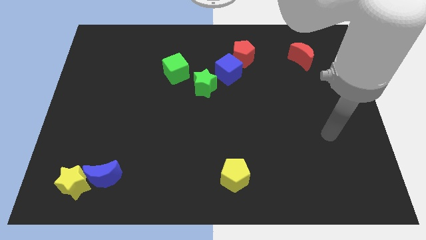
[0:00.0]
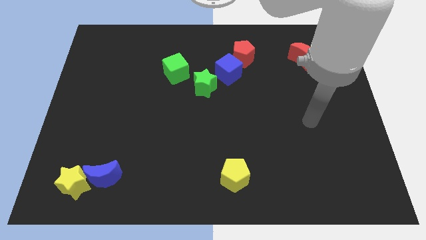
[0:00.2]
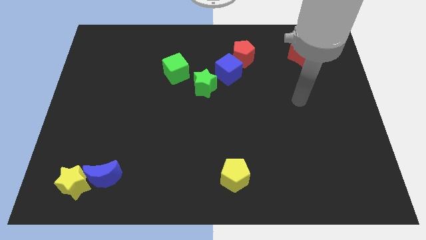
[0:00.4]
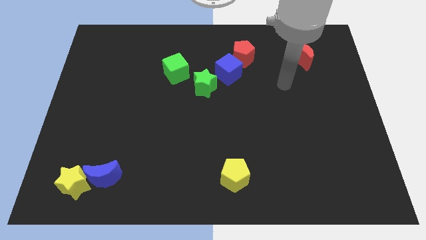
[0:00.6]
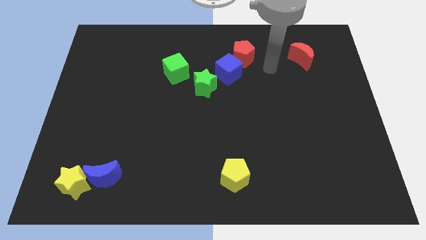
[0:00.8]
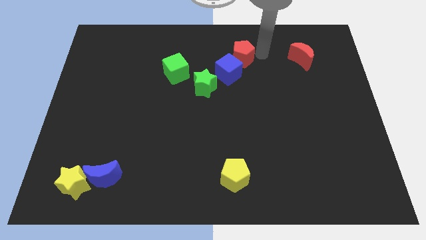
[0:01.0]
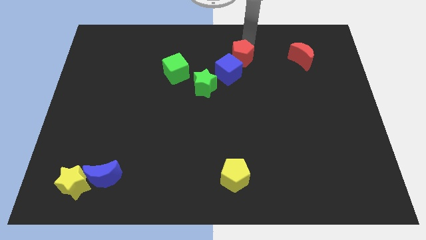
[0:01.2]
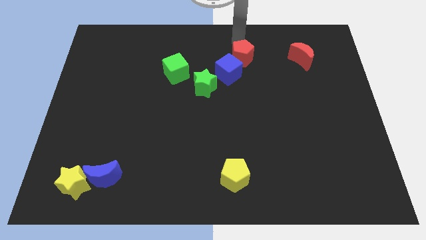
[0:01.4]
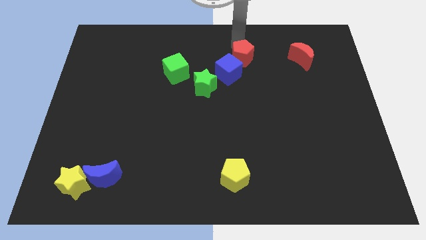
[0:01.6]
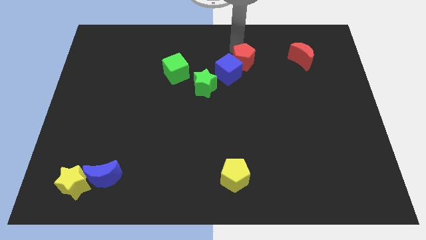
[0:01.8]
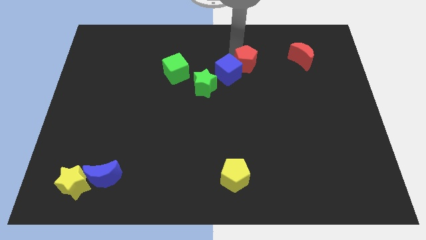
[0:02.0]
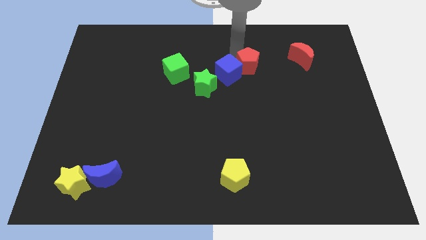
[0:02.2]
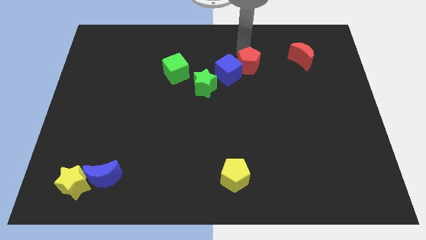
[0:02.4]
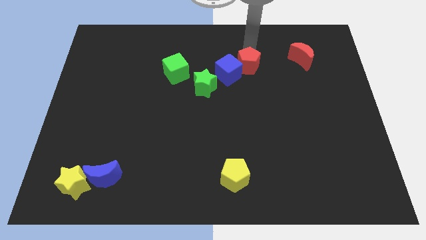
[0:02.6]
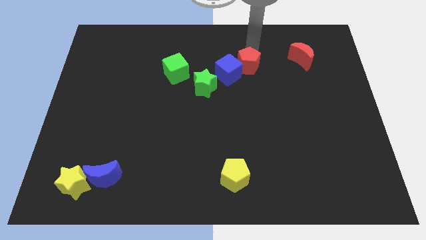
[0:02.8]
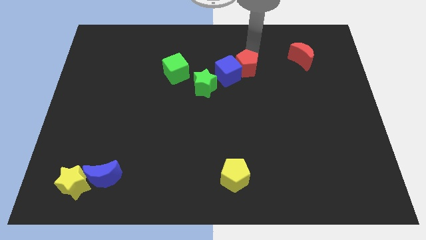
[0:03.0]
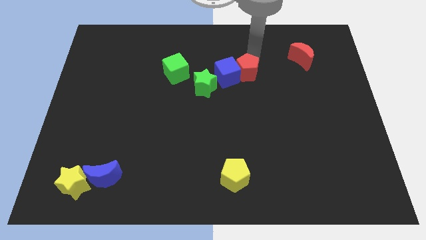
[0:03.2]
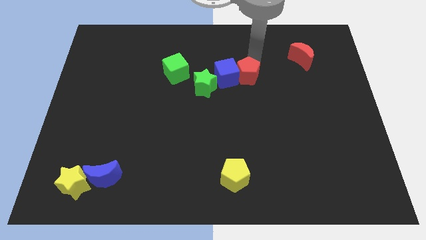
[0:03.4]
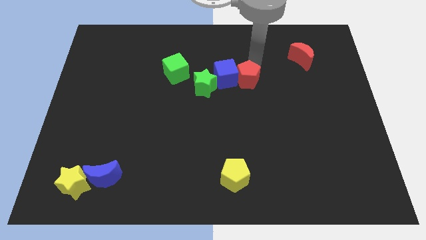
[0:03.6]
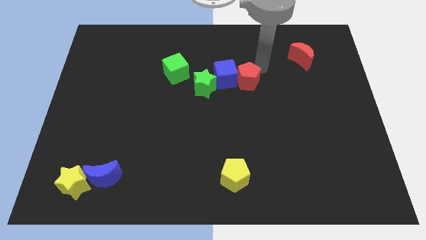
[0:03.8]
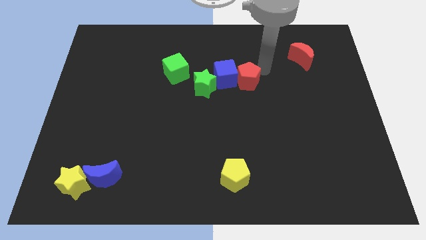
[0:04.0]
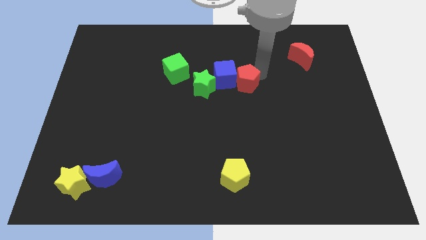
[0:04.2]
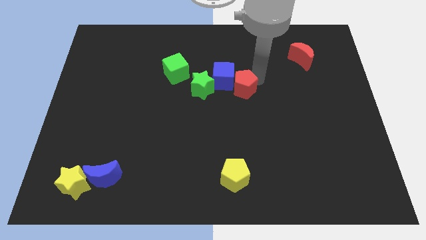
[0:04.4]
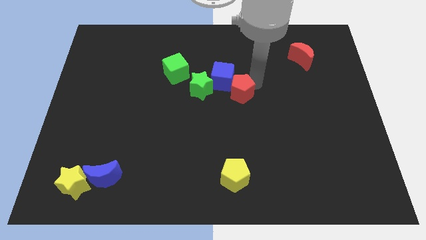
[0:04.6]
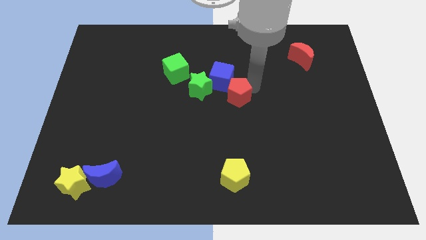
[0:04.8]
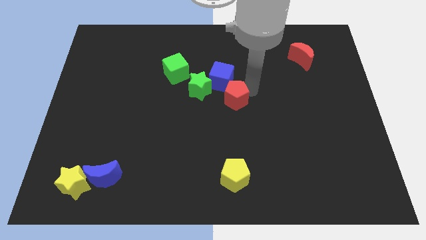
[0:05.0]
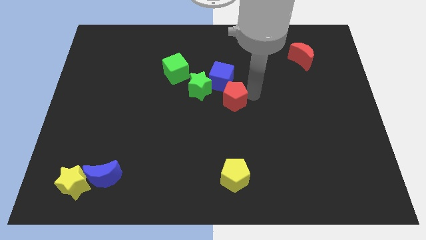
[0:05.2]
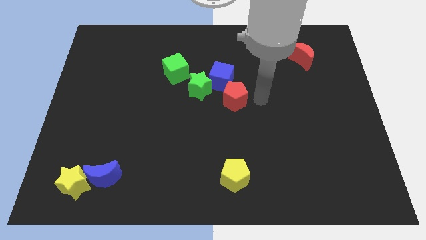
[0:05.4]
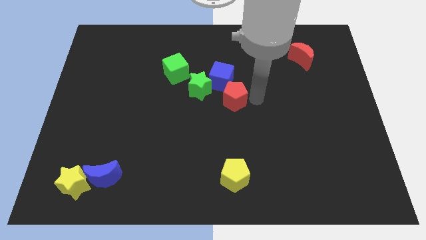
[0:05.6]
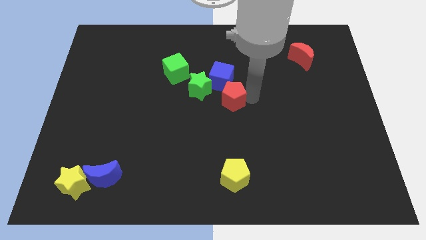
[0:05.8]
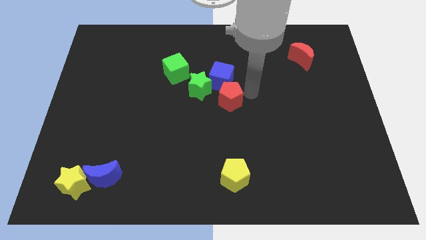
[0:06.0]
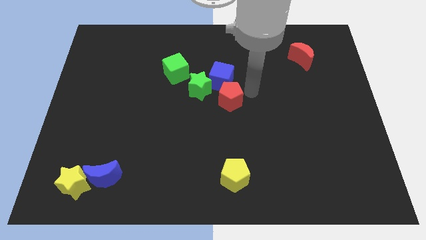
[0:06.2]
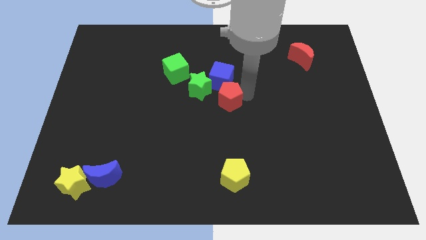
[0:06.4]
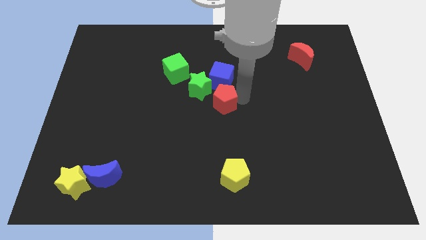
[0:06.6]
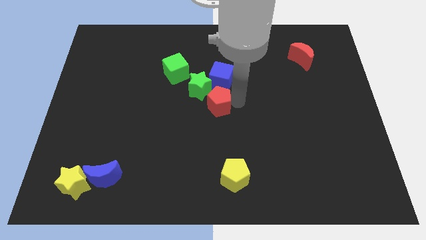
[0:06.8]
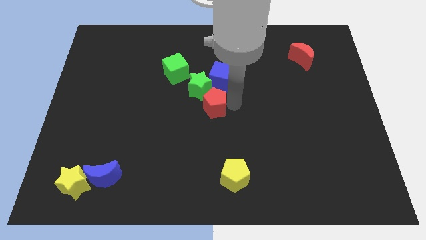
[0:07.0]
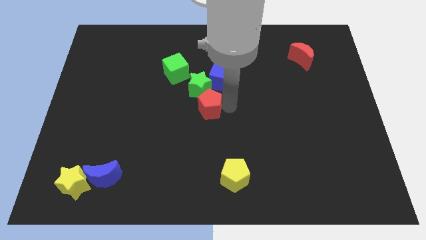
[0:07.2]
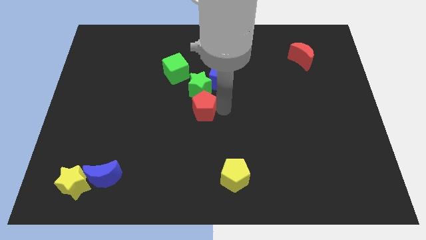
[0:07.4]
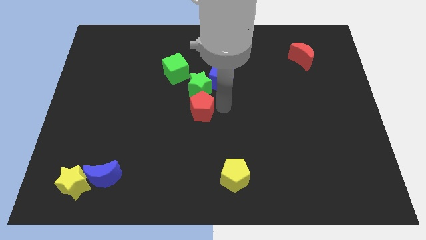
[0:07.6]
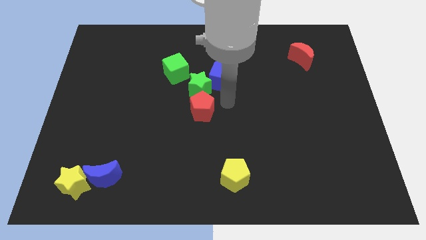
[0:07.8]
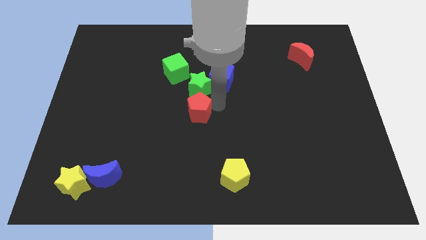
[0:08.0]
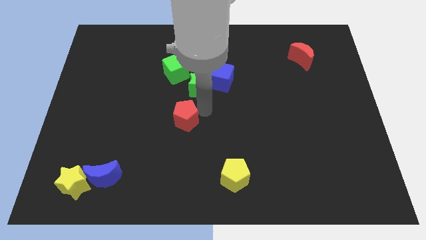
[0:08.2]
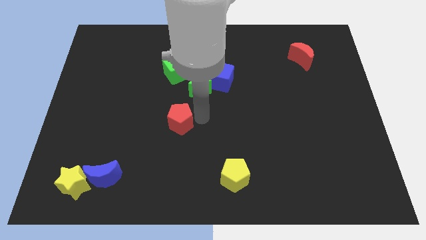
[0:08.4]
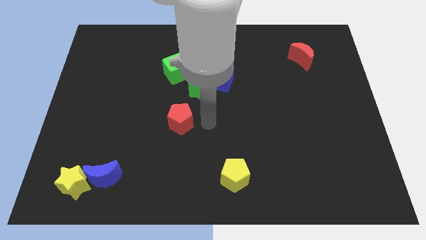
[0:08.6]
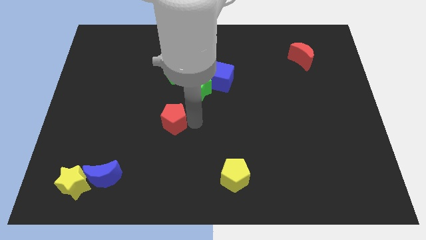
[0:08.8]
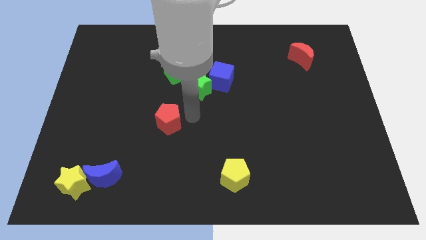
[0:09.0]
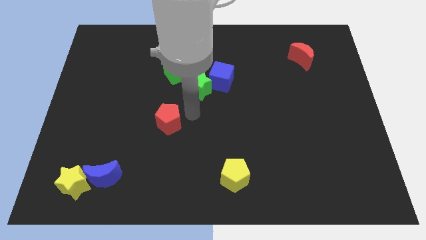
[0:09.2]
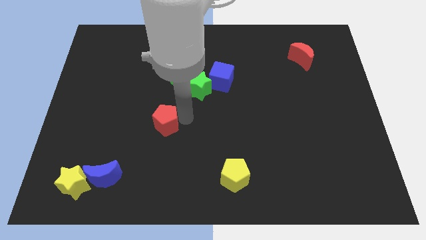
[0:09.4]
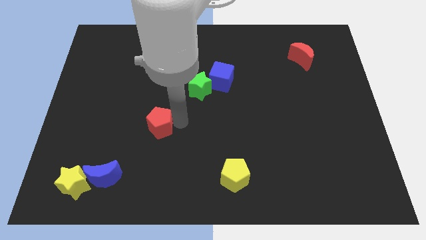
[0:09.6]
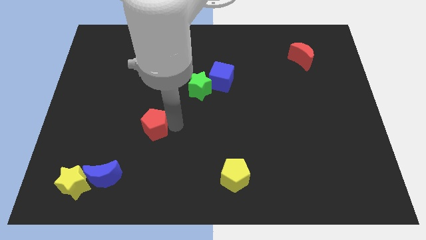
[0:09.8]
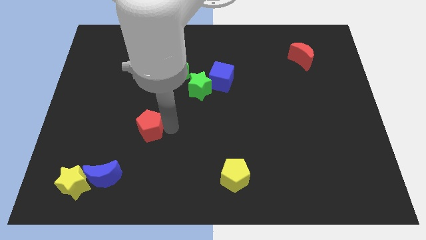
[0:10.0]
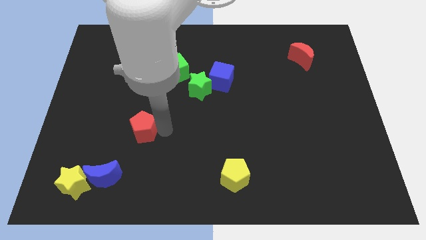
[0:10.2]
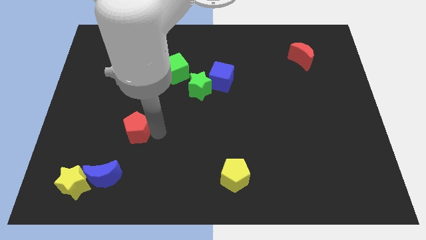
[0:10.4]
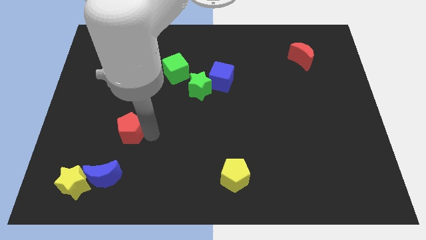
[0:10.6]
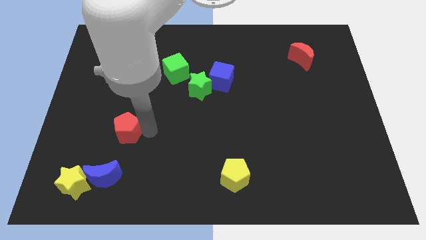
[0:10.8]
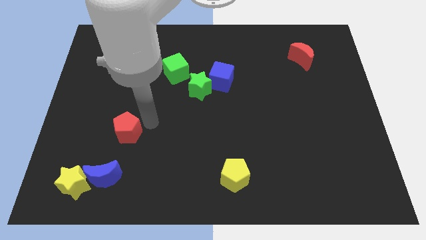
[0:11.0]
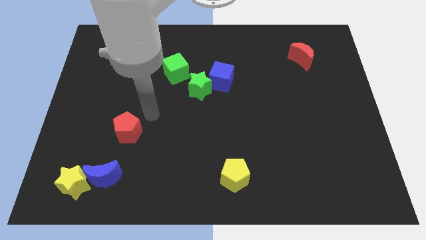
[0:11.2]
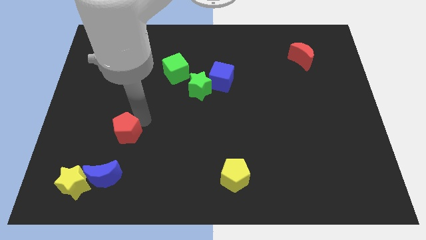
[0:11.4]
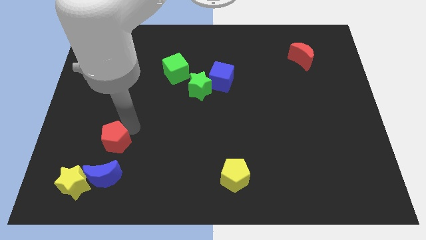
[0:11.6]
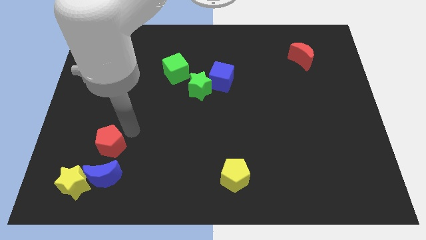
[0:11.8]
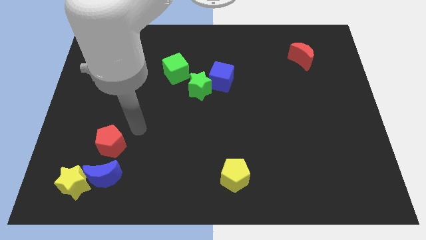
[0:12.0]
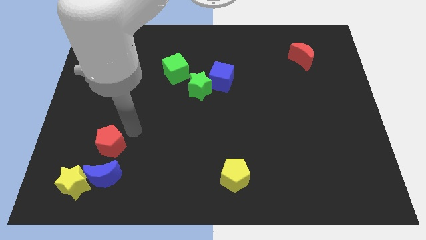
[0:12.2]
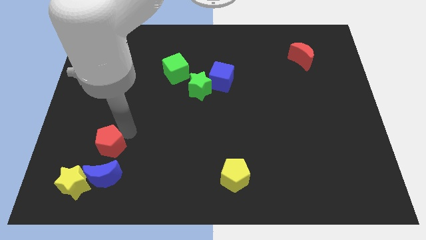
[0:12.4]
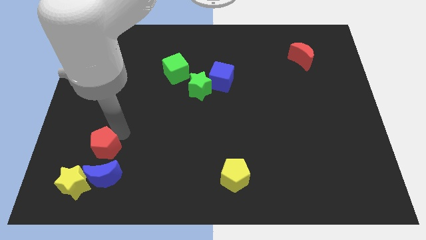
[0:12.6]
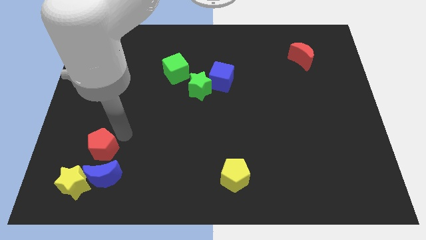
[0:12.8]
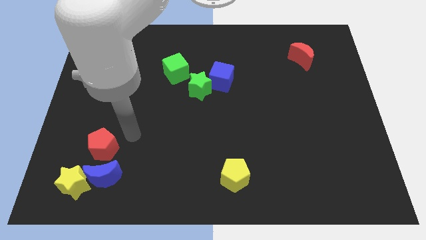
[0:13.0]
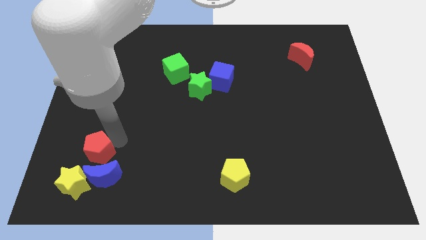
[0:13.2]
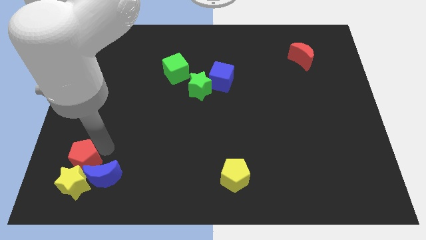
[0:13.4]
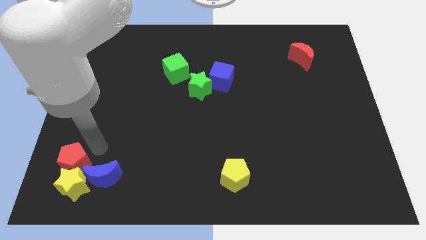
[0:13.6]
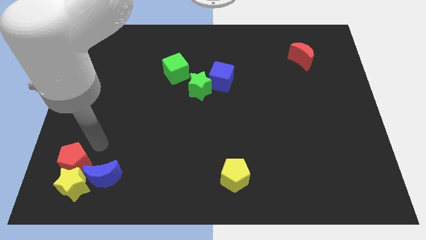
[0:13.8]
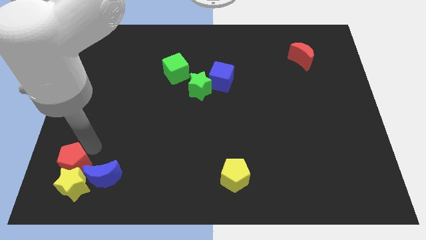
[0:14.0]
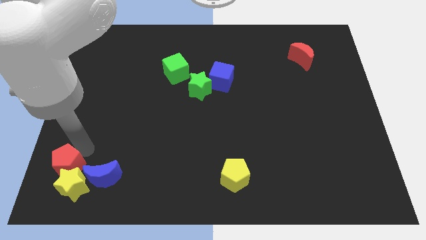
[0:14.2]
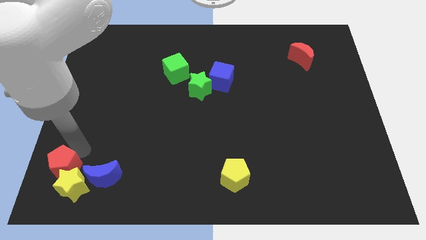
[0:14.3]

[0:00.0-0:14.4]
push the red pentagon to the bottom left

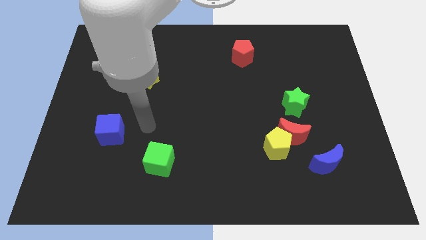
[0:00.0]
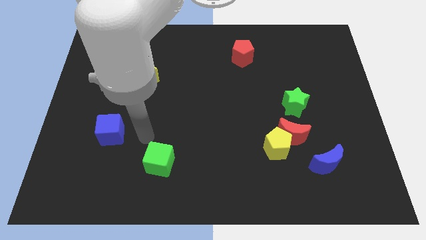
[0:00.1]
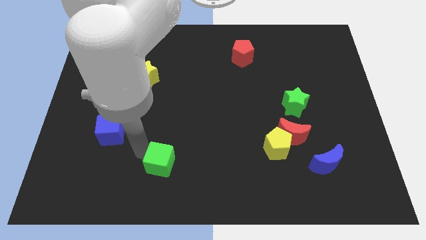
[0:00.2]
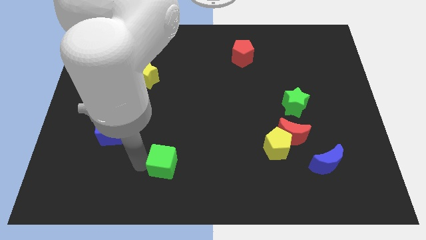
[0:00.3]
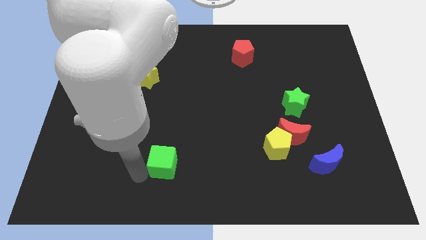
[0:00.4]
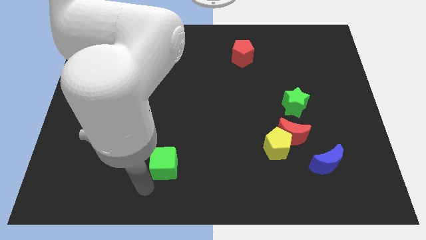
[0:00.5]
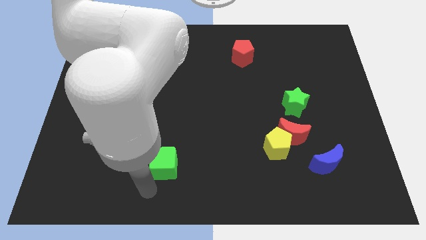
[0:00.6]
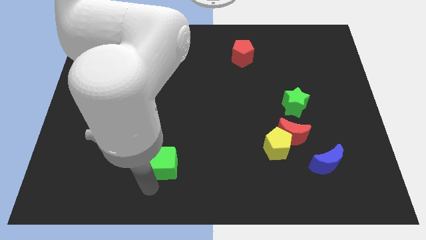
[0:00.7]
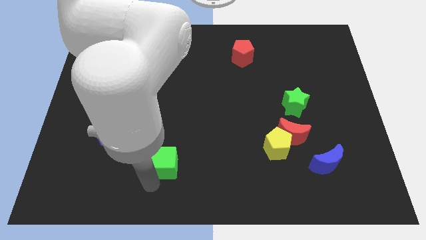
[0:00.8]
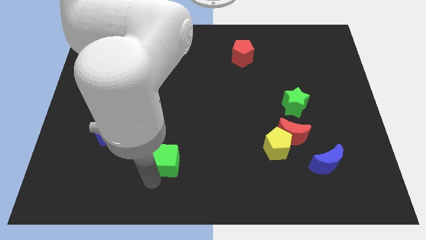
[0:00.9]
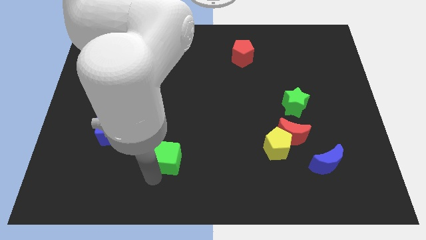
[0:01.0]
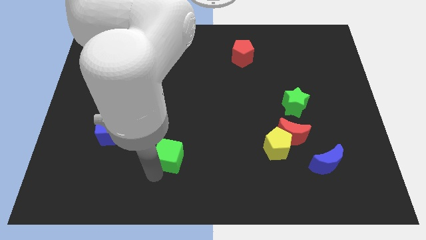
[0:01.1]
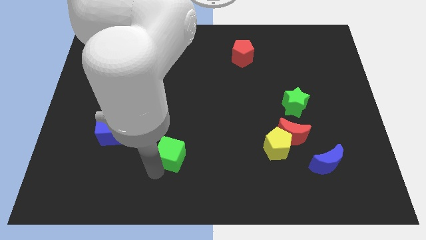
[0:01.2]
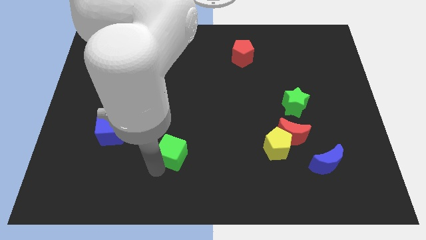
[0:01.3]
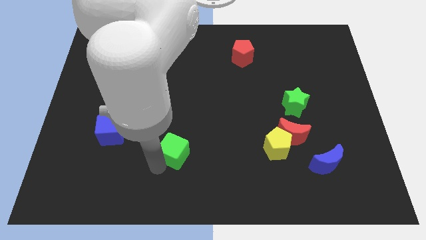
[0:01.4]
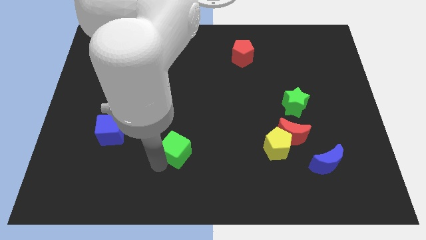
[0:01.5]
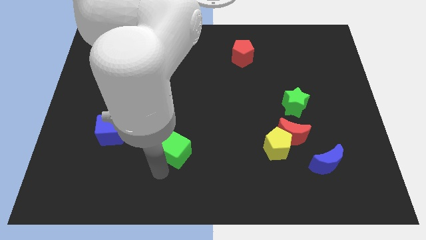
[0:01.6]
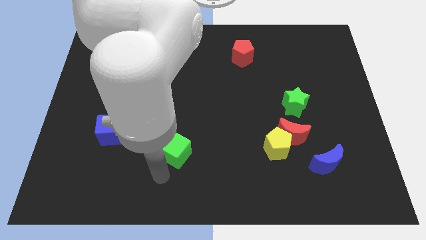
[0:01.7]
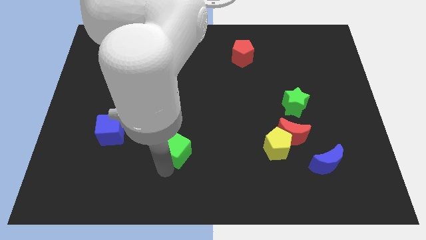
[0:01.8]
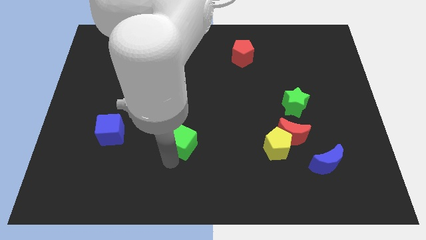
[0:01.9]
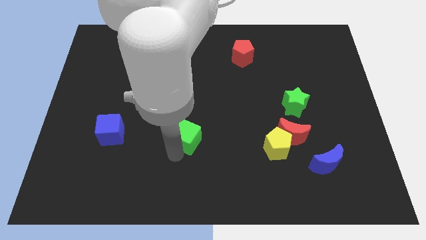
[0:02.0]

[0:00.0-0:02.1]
push the green cube to the middle of the board
